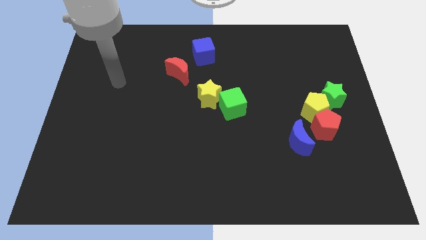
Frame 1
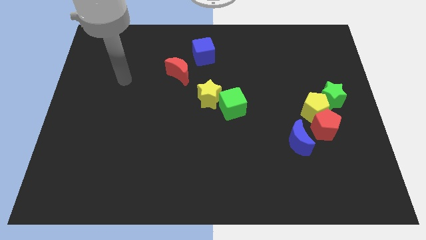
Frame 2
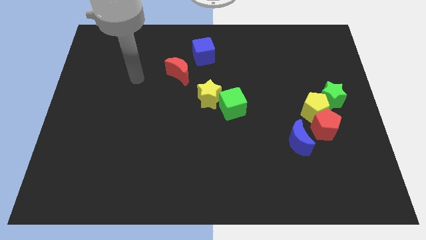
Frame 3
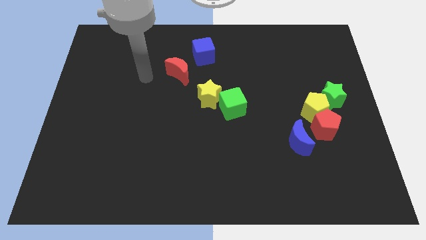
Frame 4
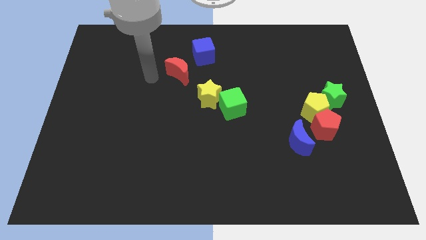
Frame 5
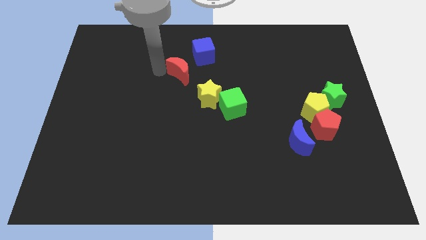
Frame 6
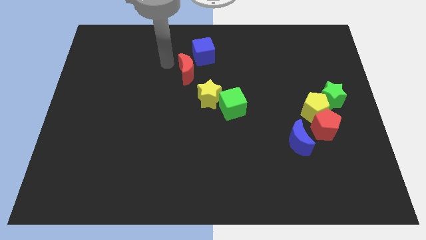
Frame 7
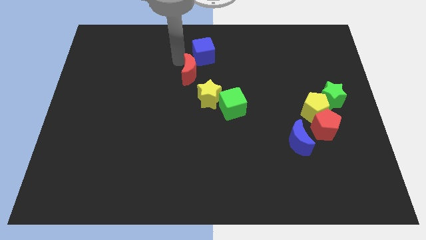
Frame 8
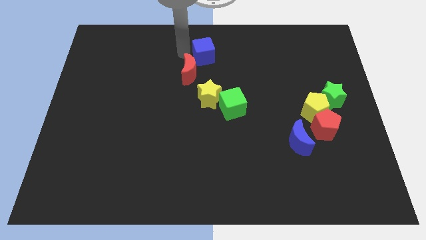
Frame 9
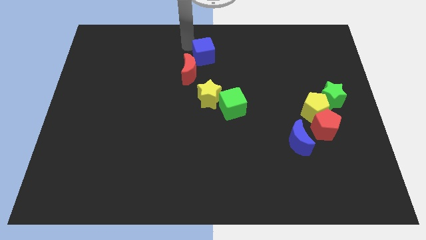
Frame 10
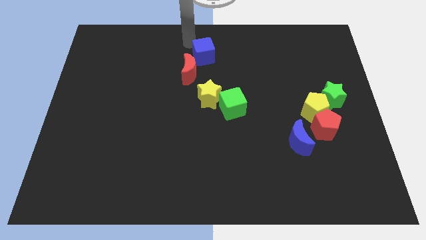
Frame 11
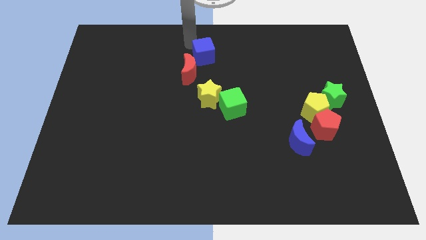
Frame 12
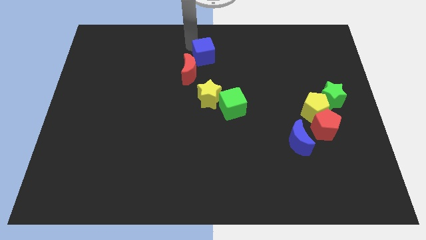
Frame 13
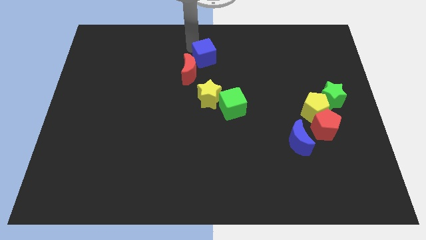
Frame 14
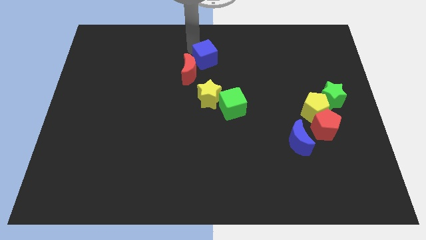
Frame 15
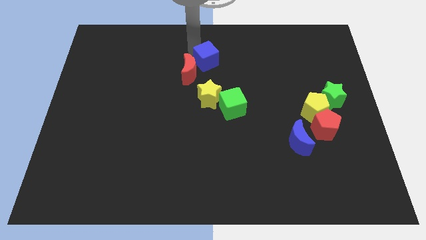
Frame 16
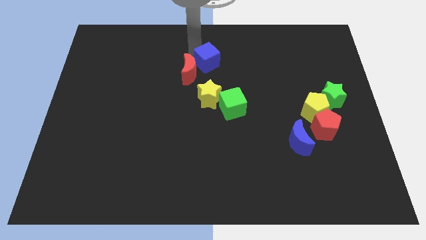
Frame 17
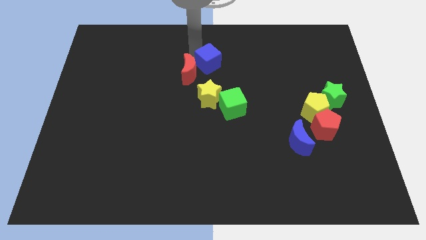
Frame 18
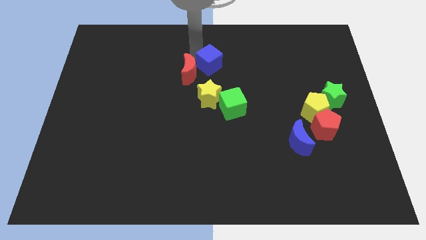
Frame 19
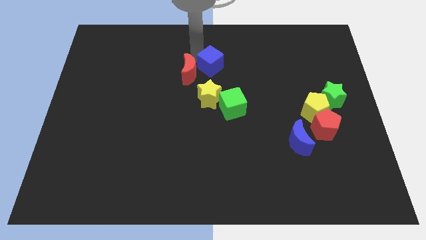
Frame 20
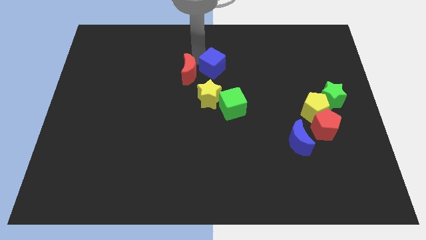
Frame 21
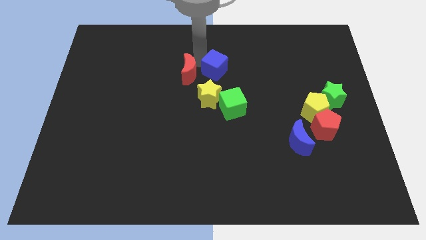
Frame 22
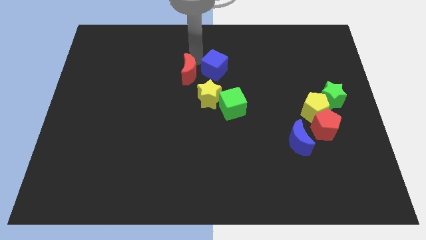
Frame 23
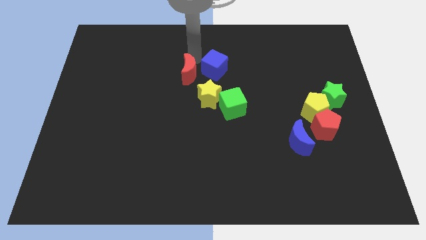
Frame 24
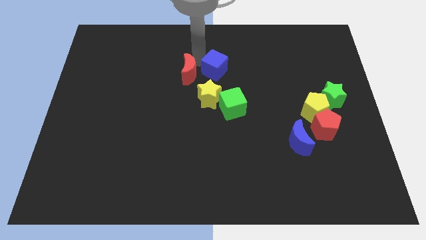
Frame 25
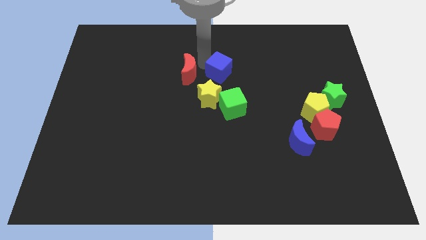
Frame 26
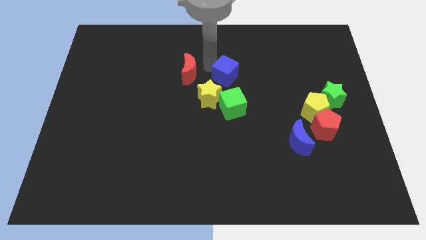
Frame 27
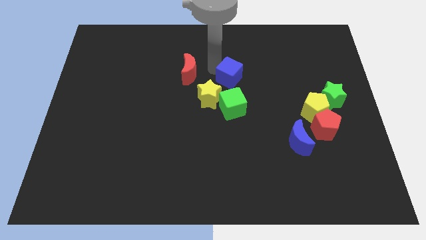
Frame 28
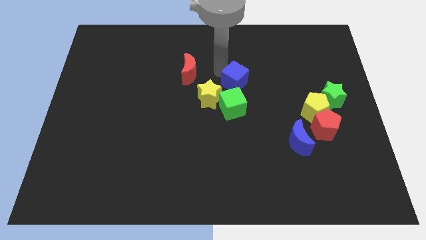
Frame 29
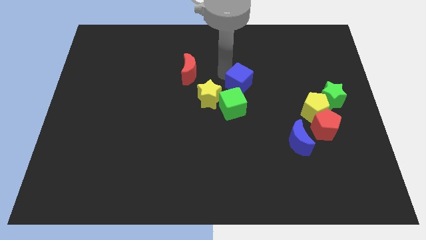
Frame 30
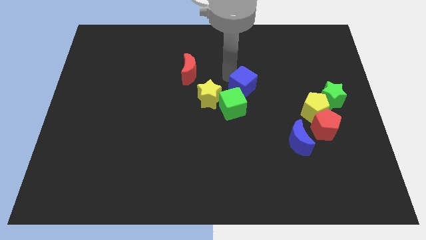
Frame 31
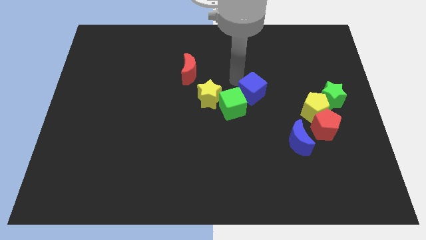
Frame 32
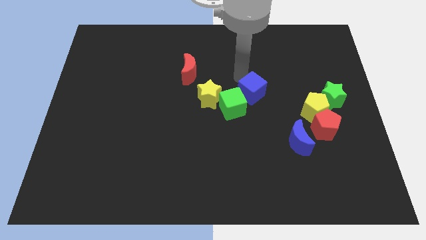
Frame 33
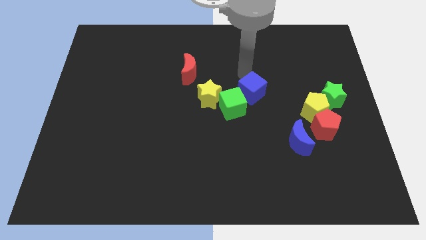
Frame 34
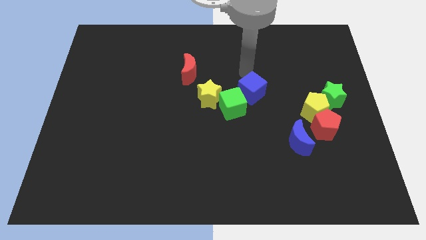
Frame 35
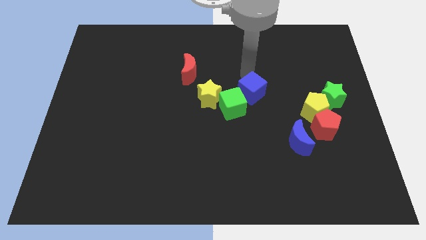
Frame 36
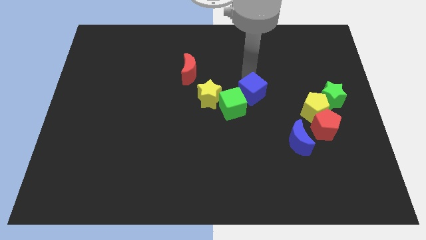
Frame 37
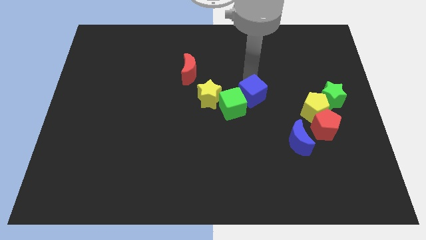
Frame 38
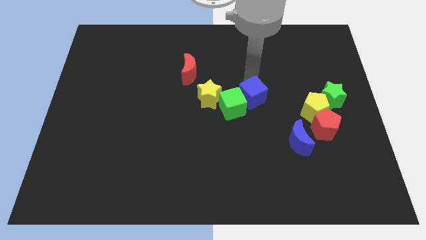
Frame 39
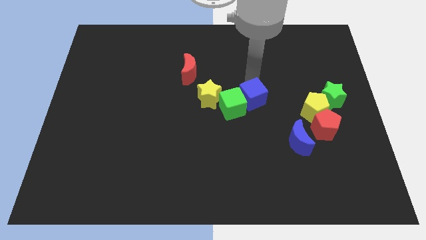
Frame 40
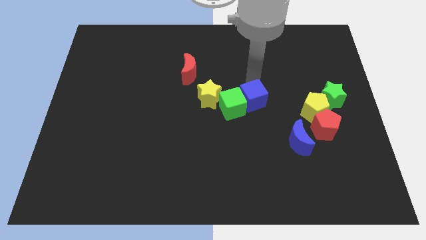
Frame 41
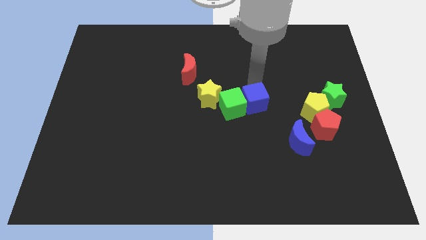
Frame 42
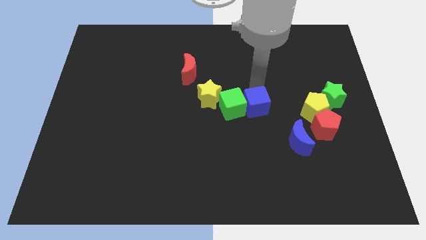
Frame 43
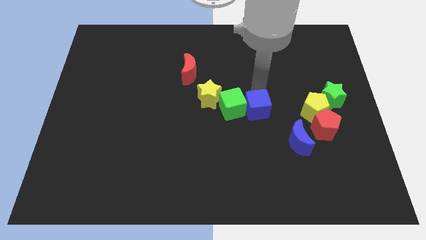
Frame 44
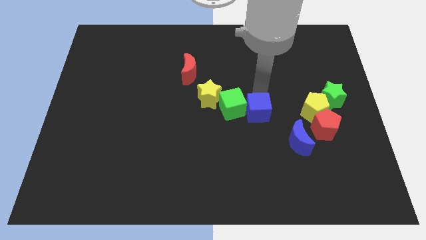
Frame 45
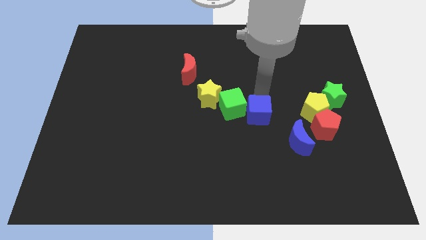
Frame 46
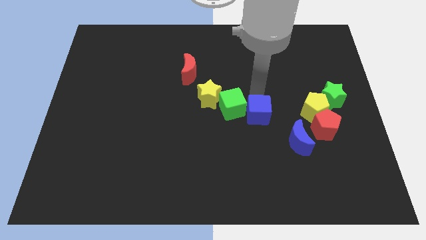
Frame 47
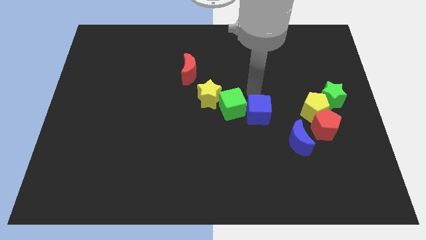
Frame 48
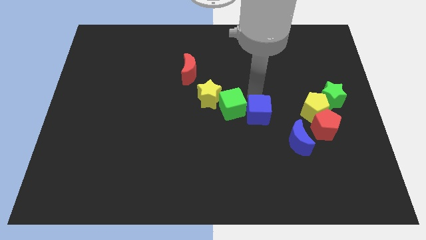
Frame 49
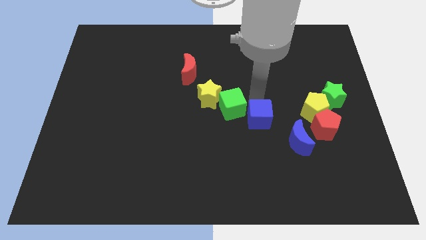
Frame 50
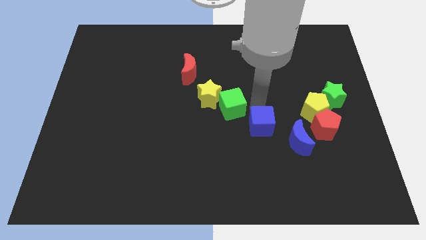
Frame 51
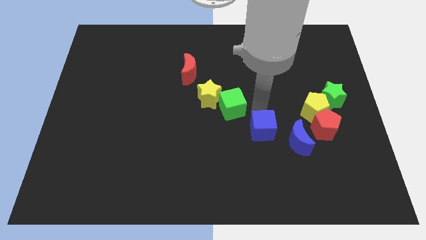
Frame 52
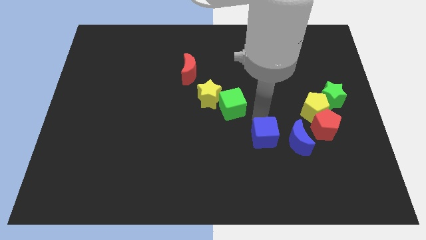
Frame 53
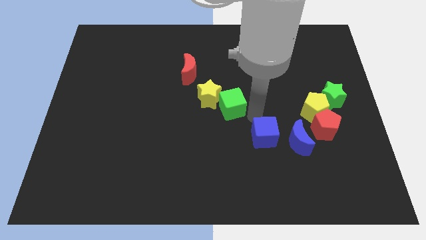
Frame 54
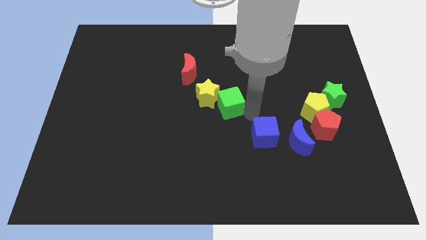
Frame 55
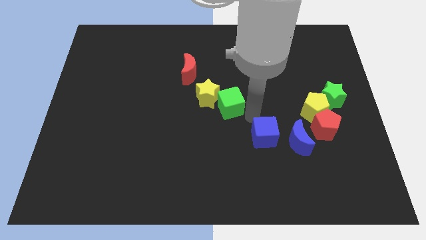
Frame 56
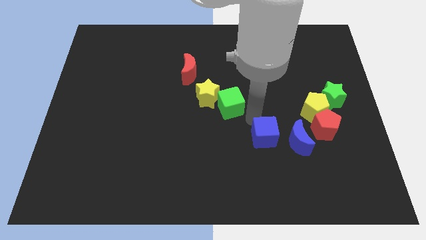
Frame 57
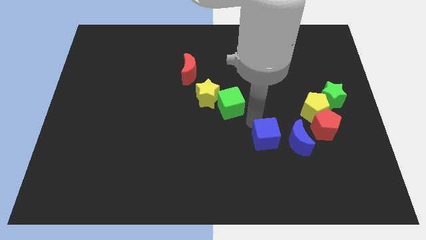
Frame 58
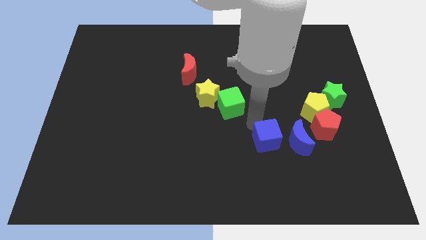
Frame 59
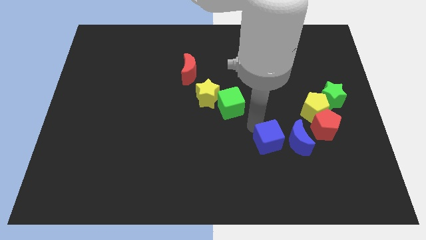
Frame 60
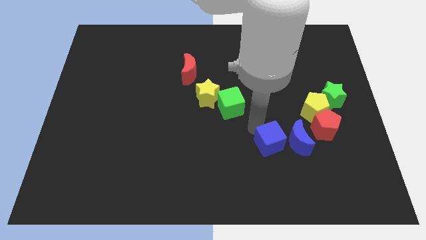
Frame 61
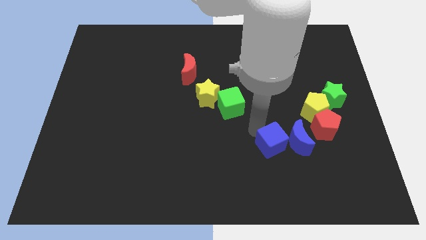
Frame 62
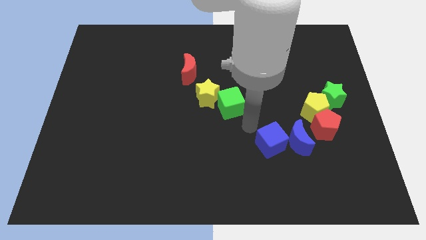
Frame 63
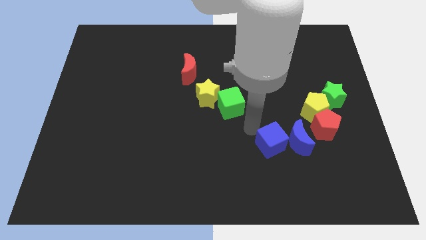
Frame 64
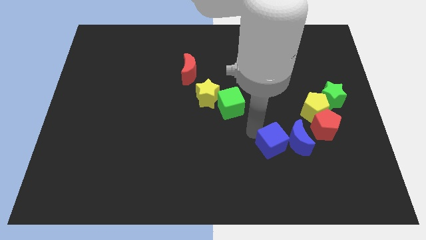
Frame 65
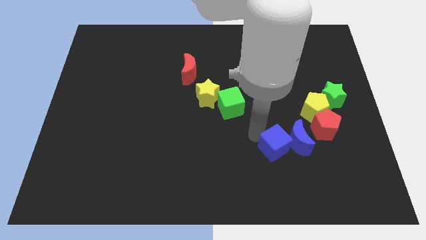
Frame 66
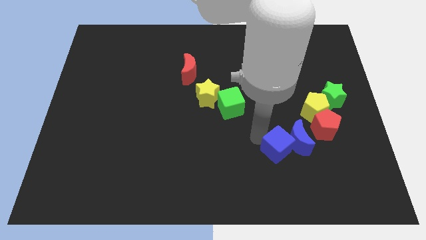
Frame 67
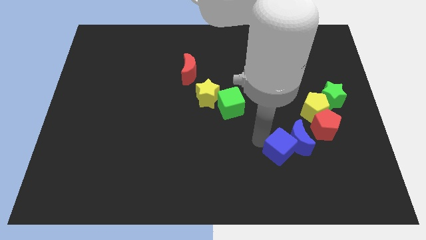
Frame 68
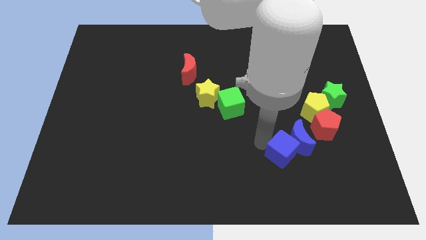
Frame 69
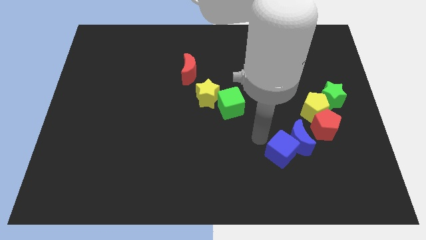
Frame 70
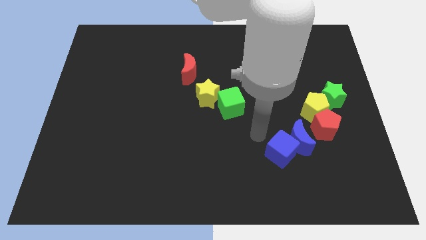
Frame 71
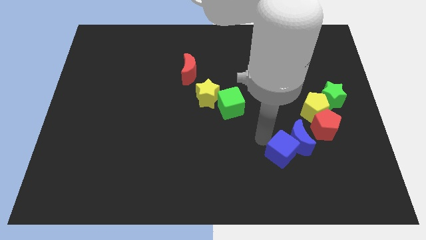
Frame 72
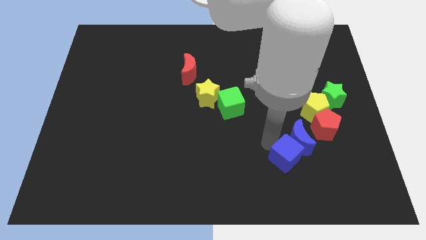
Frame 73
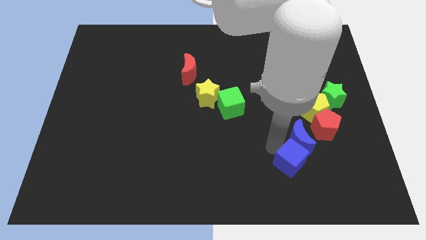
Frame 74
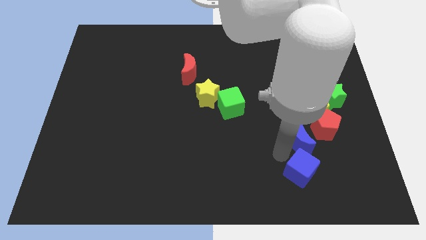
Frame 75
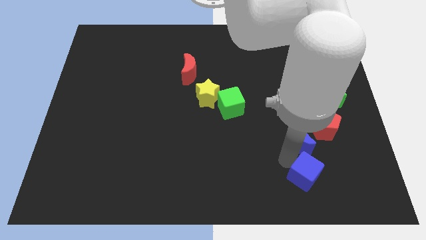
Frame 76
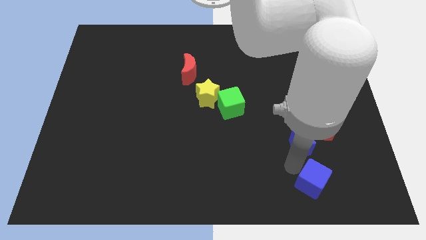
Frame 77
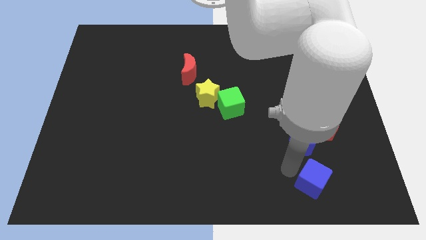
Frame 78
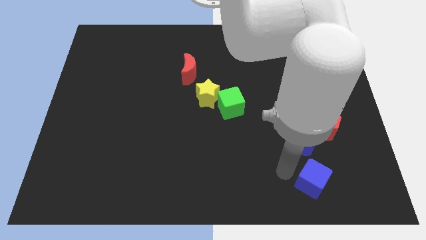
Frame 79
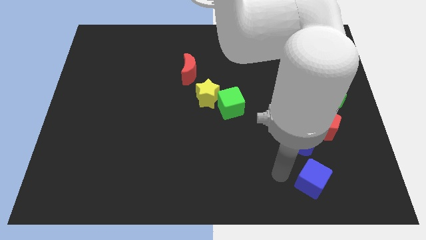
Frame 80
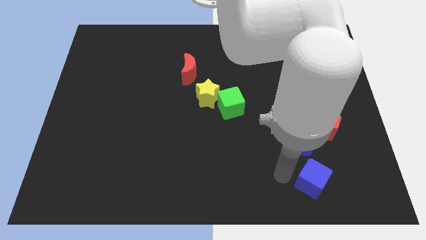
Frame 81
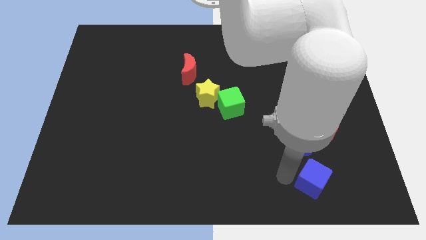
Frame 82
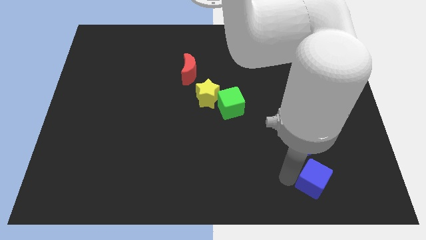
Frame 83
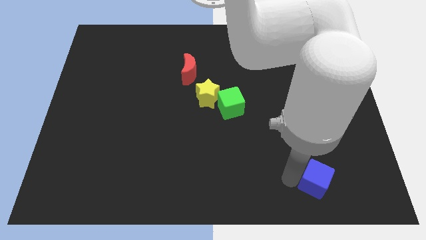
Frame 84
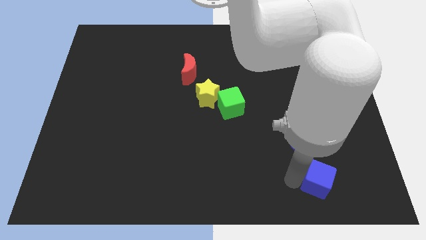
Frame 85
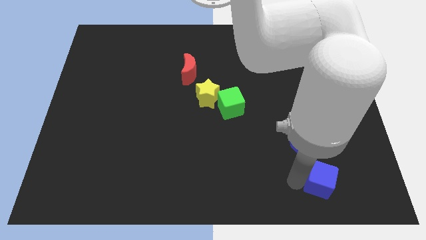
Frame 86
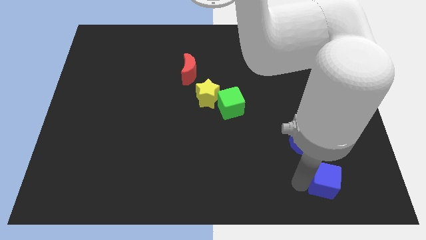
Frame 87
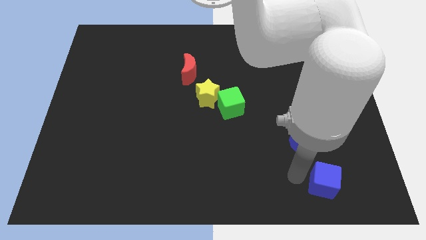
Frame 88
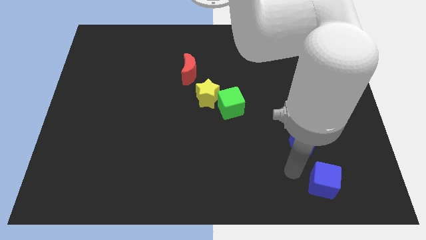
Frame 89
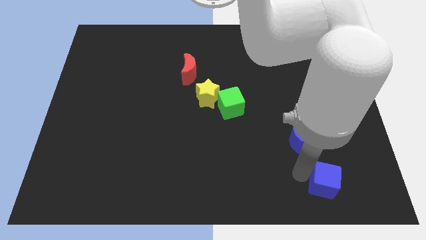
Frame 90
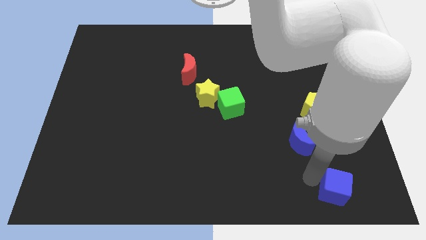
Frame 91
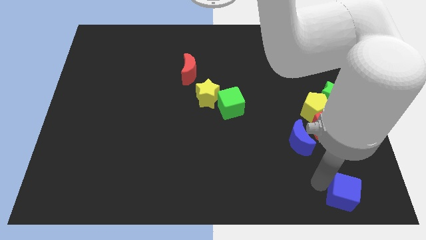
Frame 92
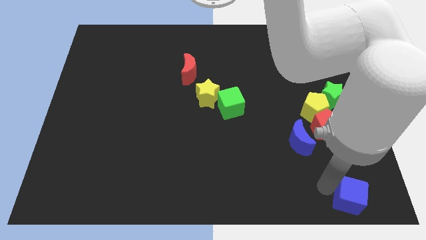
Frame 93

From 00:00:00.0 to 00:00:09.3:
slide the blue cube to the lower right corner
